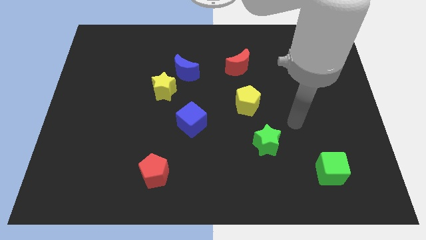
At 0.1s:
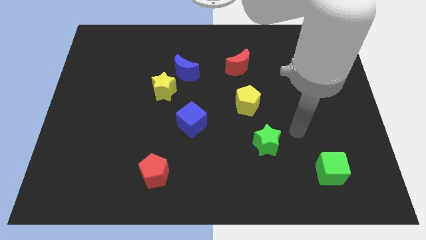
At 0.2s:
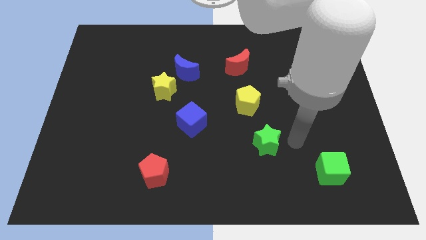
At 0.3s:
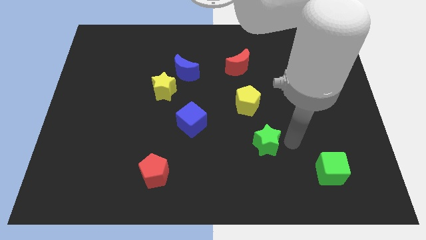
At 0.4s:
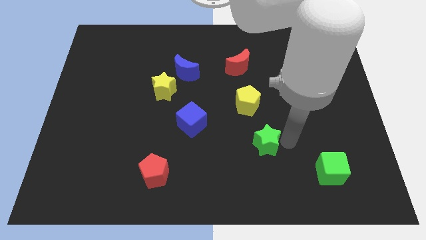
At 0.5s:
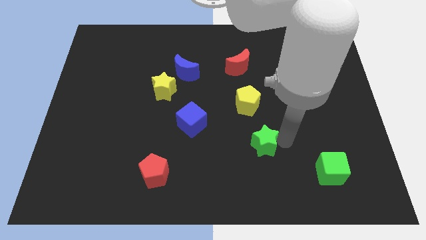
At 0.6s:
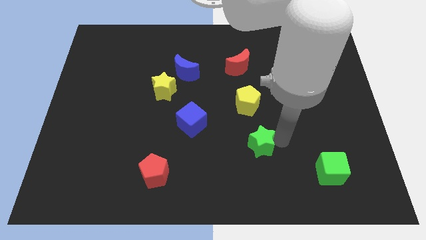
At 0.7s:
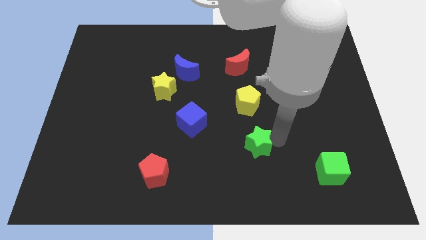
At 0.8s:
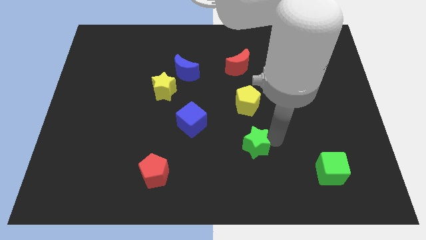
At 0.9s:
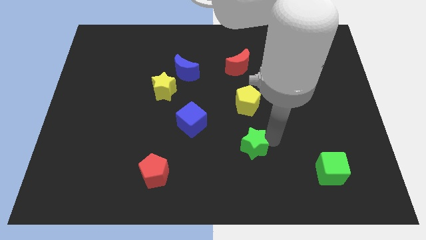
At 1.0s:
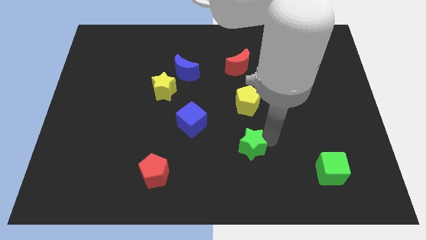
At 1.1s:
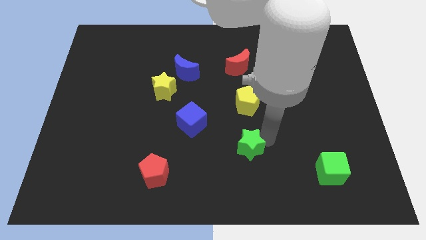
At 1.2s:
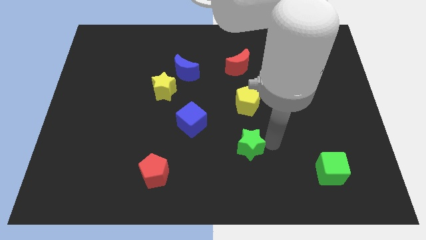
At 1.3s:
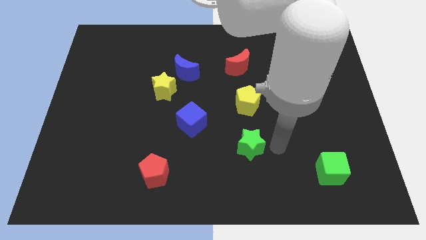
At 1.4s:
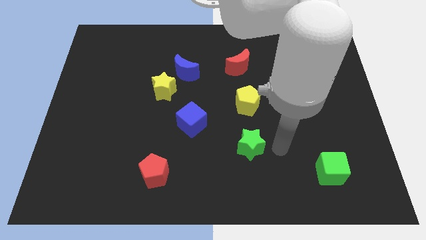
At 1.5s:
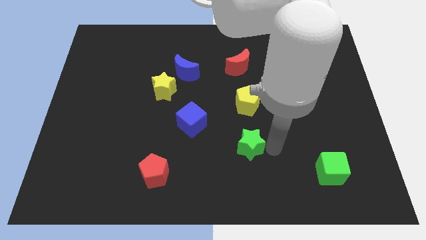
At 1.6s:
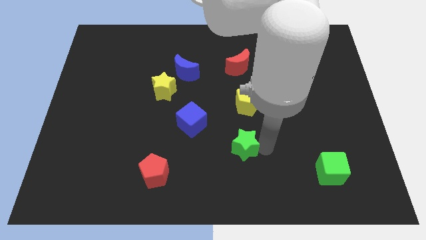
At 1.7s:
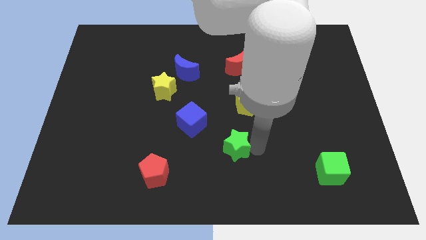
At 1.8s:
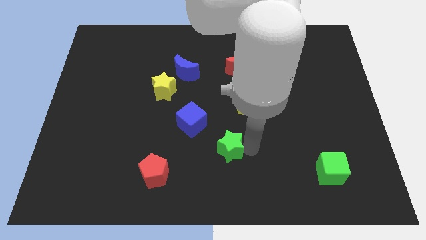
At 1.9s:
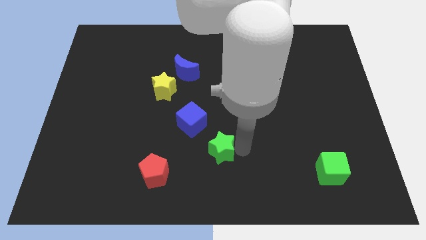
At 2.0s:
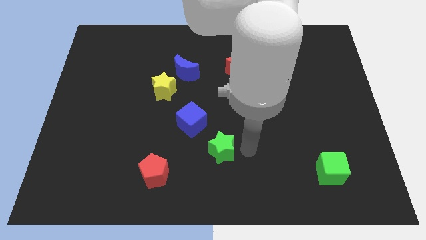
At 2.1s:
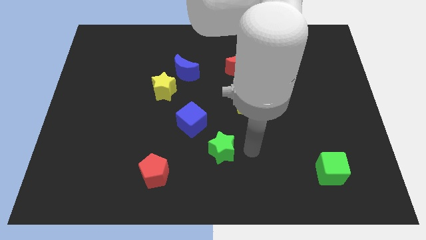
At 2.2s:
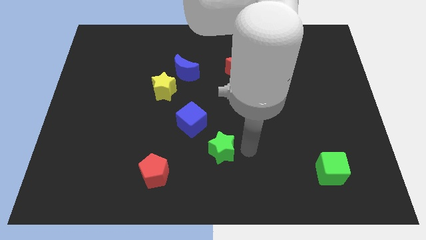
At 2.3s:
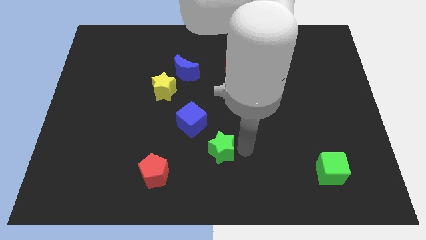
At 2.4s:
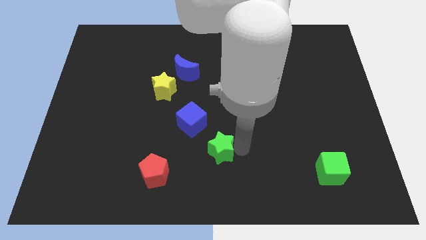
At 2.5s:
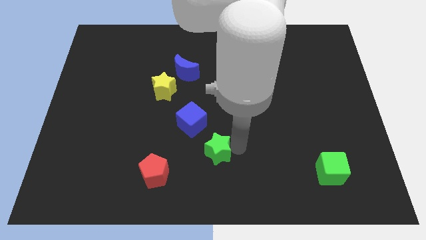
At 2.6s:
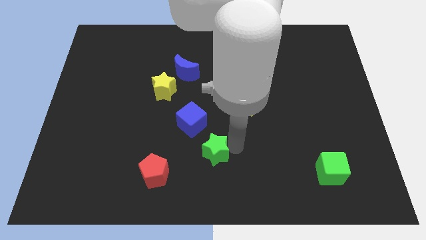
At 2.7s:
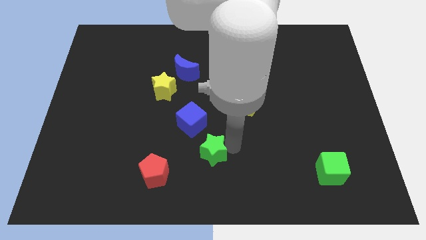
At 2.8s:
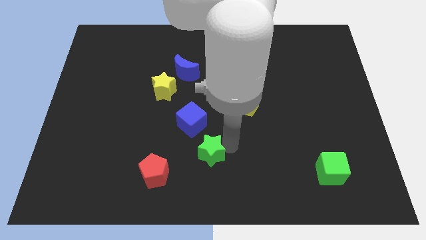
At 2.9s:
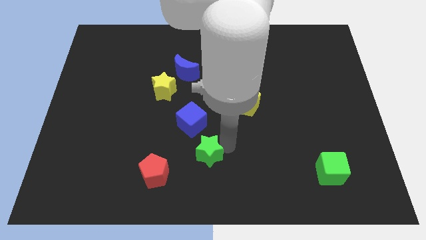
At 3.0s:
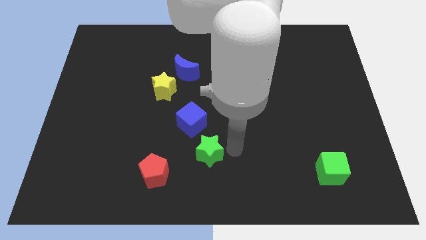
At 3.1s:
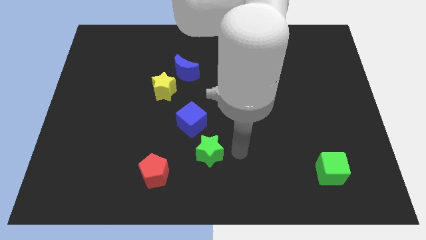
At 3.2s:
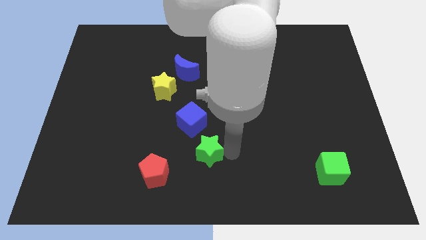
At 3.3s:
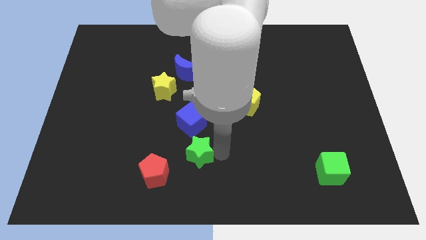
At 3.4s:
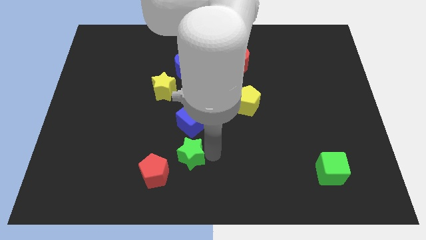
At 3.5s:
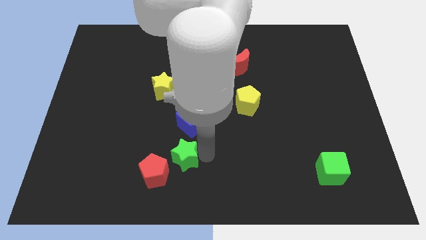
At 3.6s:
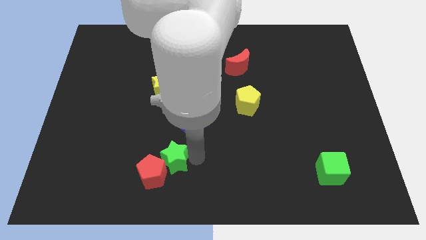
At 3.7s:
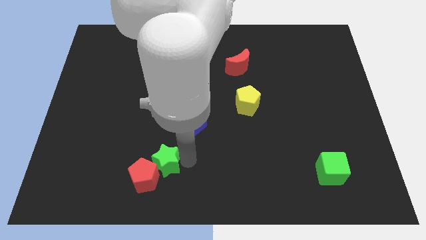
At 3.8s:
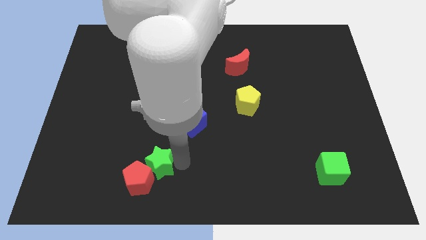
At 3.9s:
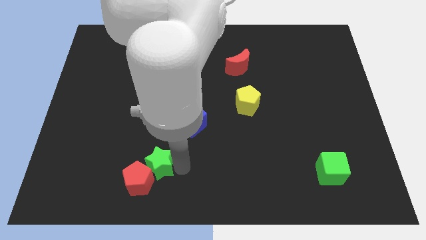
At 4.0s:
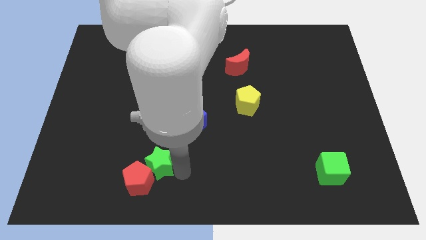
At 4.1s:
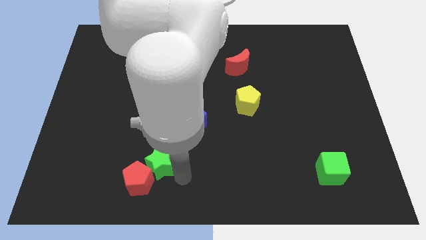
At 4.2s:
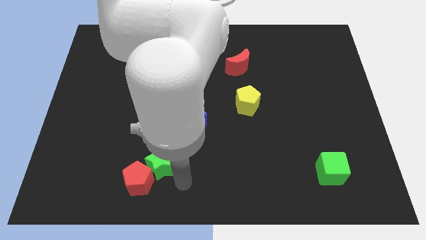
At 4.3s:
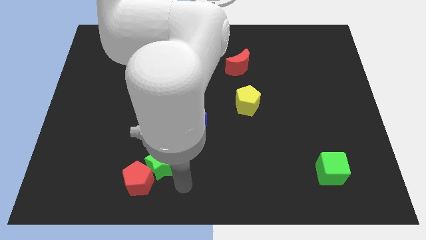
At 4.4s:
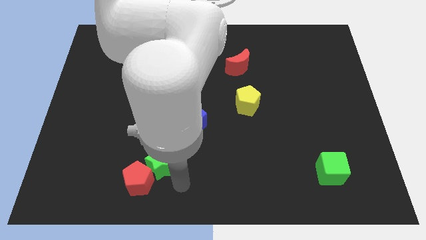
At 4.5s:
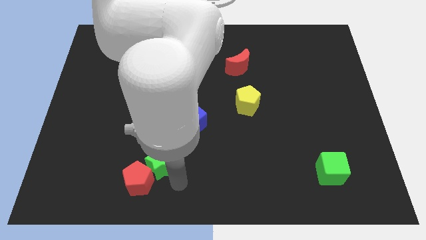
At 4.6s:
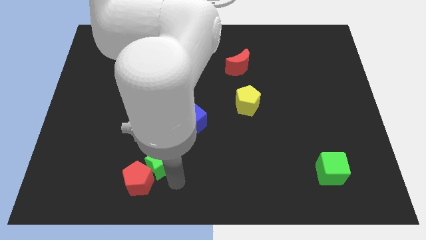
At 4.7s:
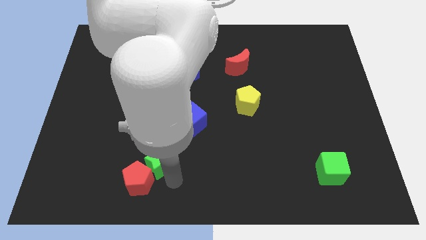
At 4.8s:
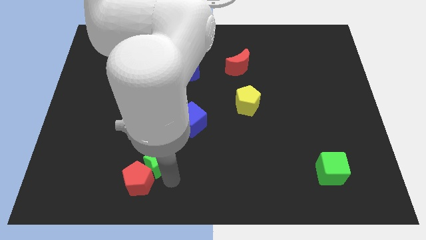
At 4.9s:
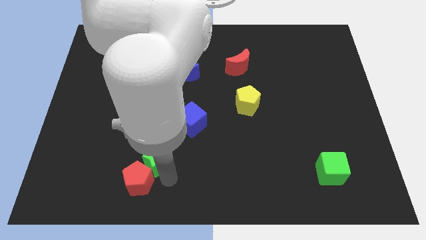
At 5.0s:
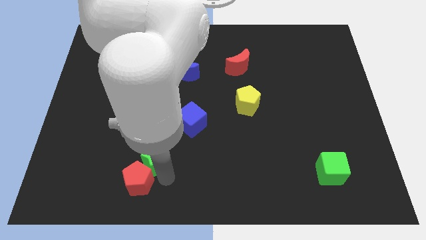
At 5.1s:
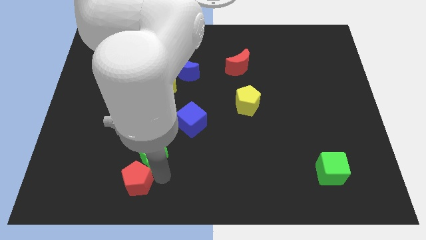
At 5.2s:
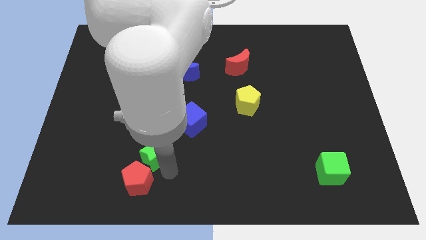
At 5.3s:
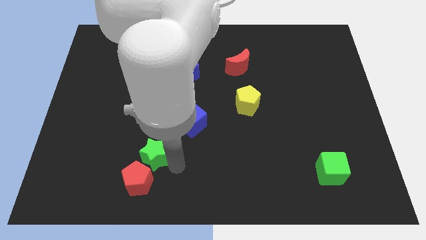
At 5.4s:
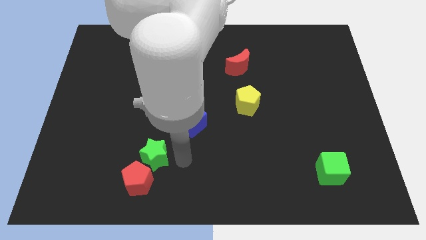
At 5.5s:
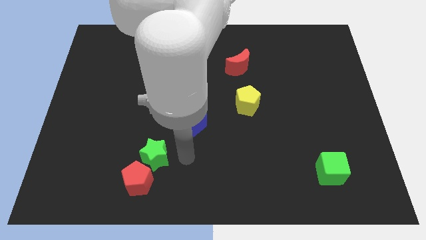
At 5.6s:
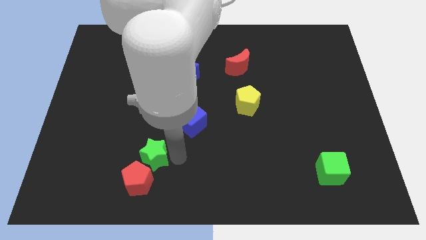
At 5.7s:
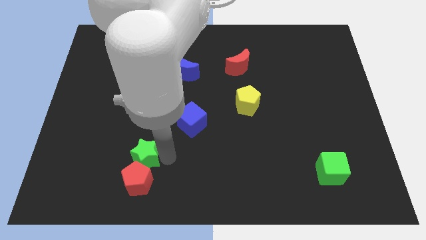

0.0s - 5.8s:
put the green star diagonally up and to the left of the red pentagon

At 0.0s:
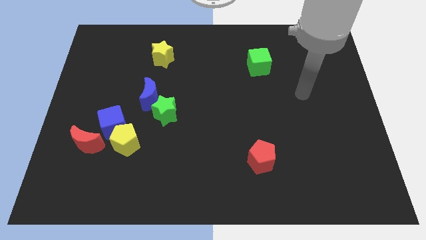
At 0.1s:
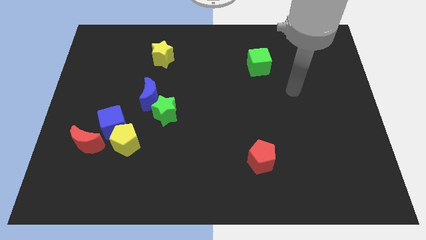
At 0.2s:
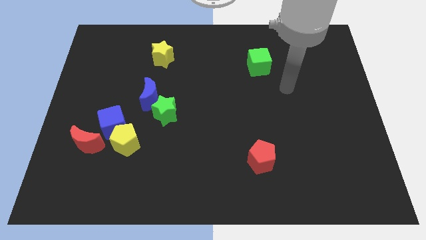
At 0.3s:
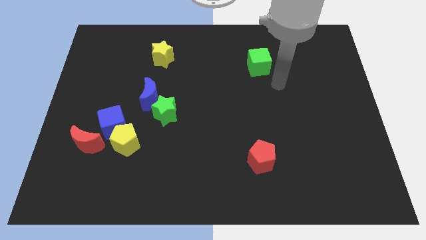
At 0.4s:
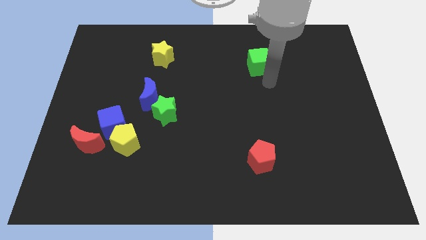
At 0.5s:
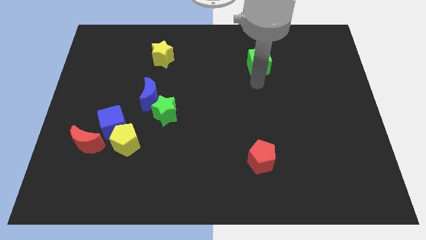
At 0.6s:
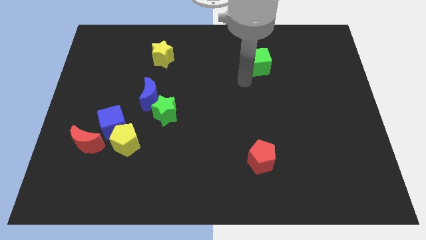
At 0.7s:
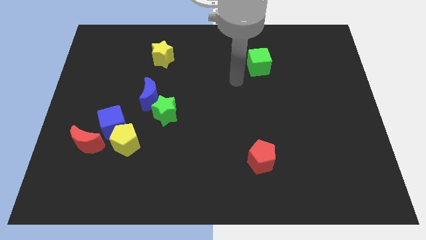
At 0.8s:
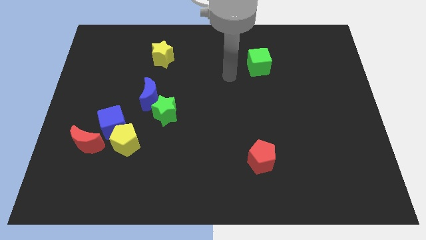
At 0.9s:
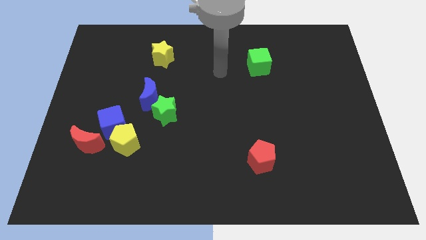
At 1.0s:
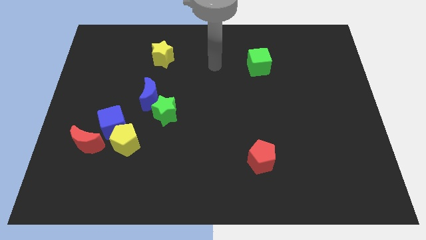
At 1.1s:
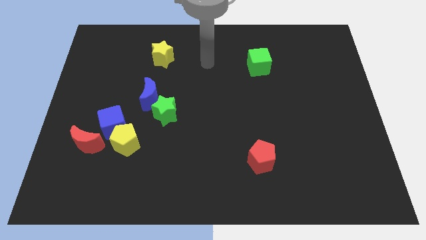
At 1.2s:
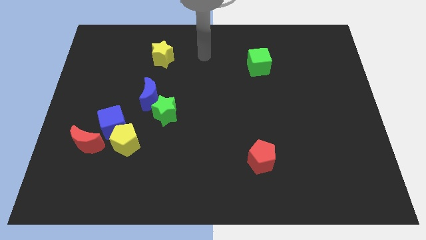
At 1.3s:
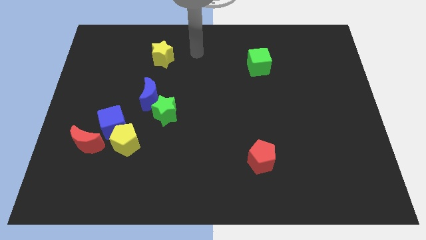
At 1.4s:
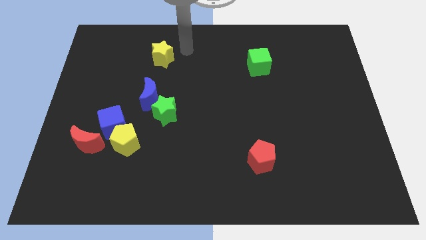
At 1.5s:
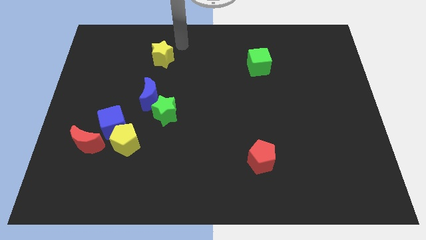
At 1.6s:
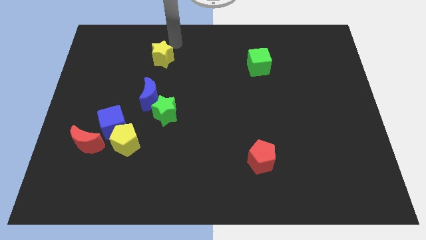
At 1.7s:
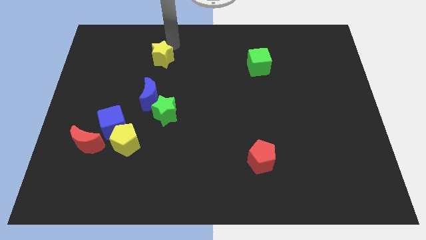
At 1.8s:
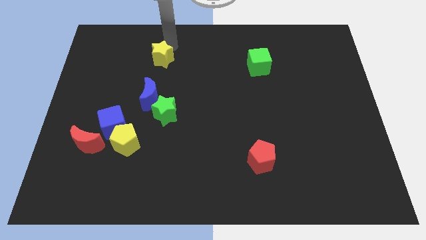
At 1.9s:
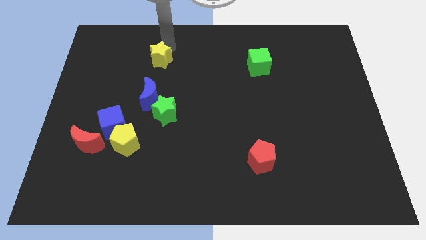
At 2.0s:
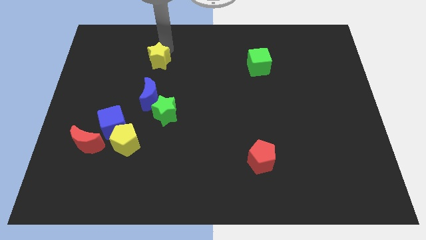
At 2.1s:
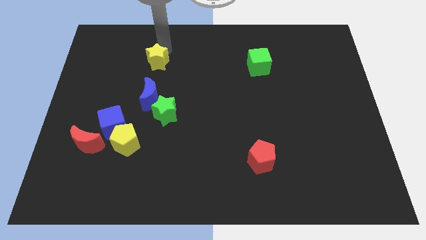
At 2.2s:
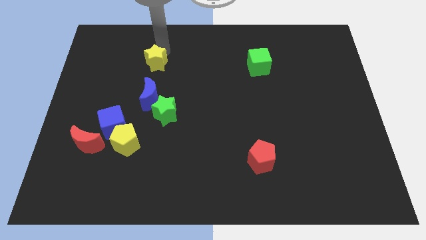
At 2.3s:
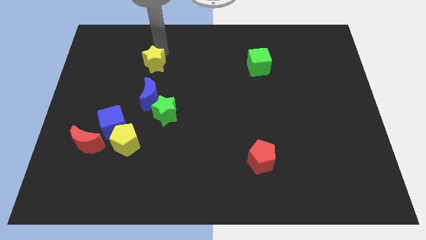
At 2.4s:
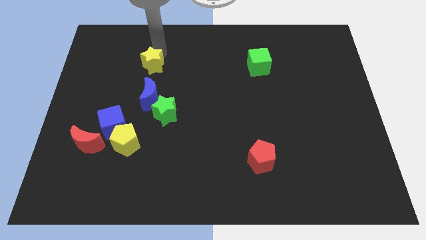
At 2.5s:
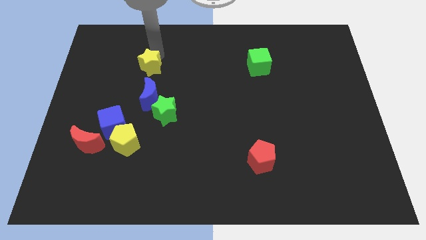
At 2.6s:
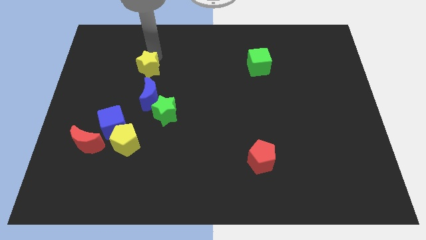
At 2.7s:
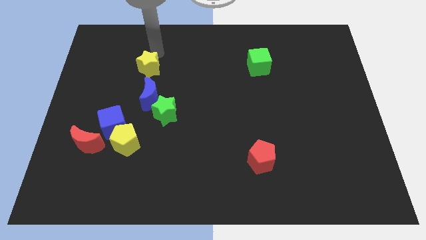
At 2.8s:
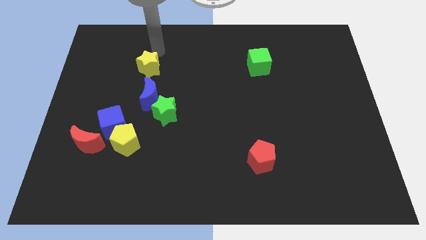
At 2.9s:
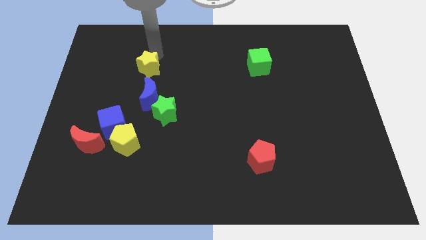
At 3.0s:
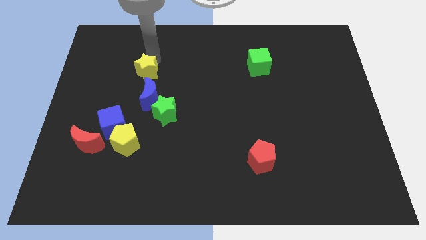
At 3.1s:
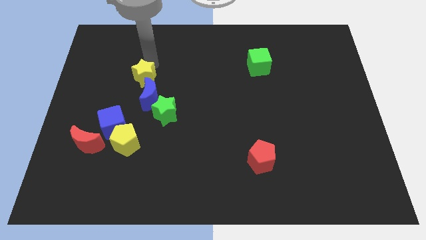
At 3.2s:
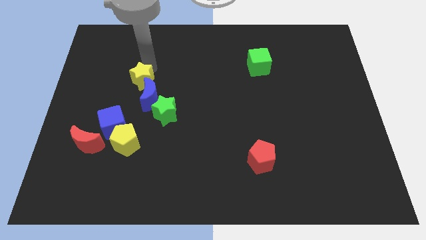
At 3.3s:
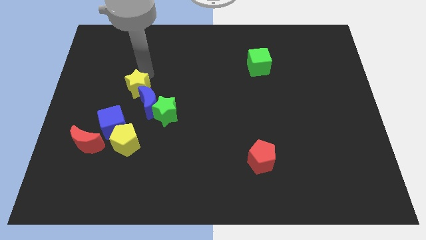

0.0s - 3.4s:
slide the yellow star to the top side of the yellow pentagon
